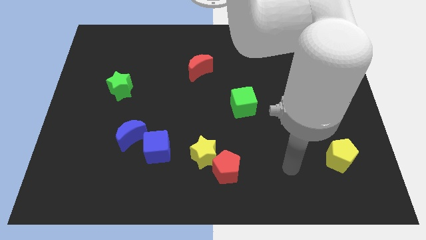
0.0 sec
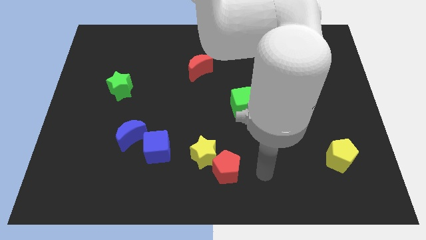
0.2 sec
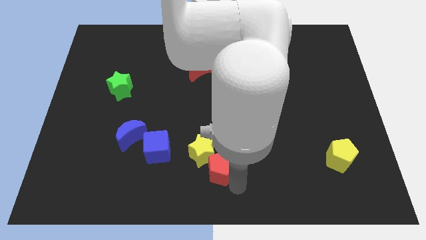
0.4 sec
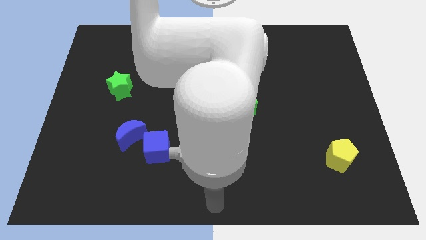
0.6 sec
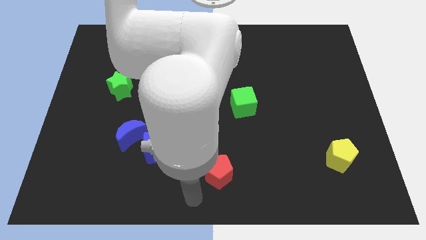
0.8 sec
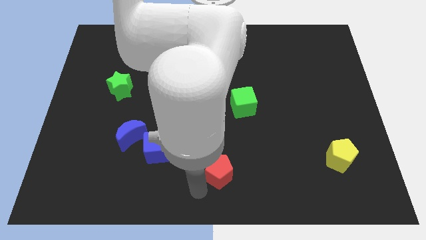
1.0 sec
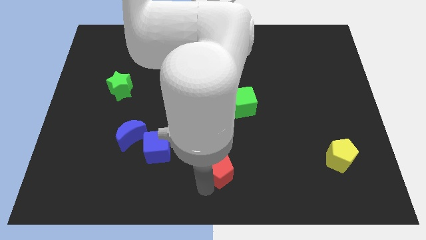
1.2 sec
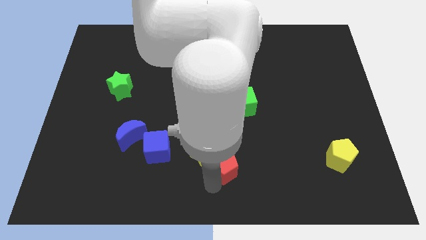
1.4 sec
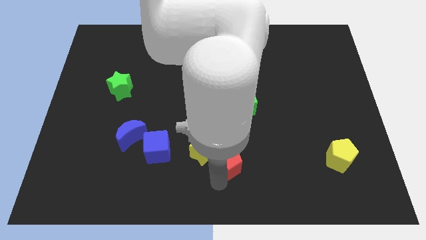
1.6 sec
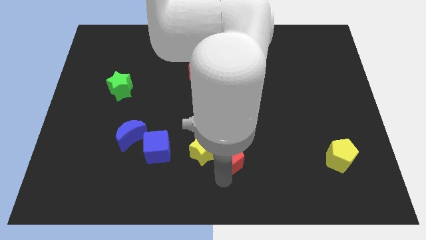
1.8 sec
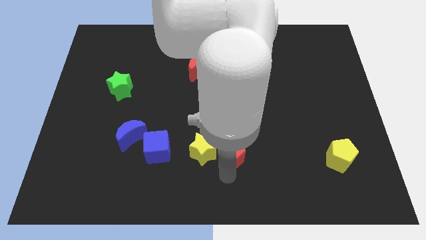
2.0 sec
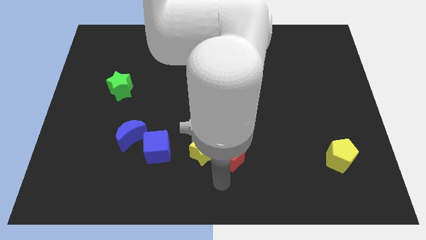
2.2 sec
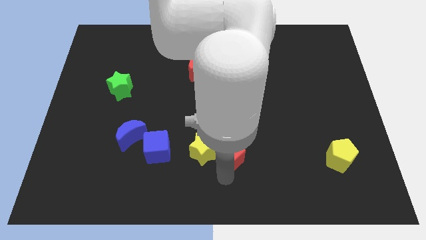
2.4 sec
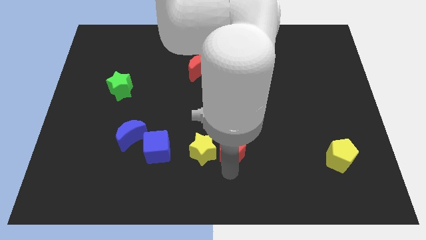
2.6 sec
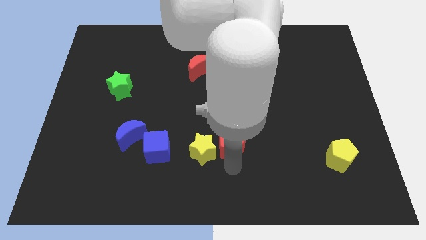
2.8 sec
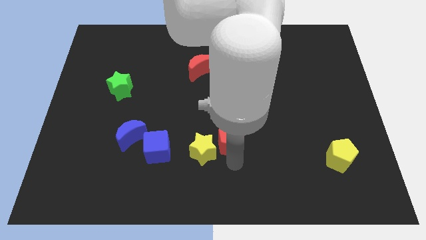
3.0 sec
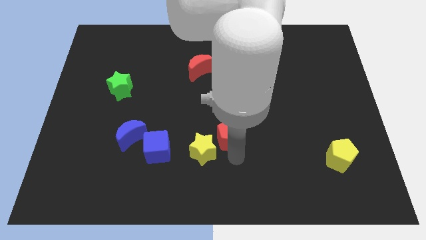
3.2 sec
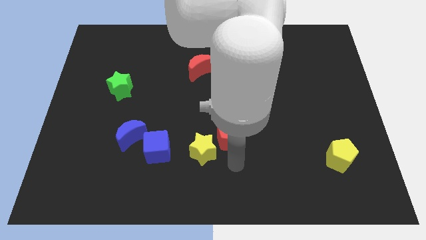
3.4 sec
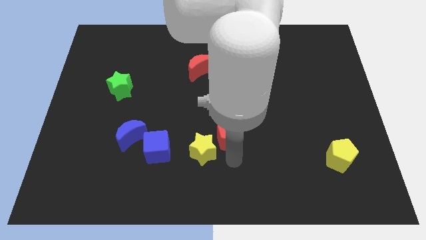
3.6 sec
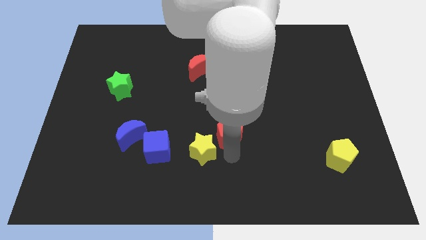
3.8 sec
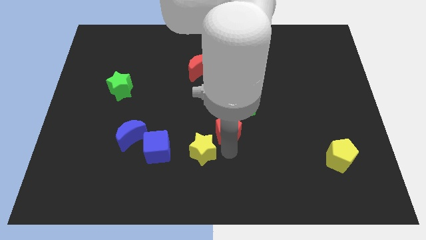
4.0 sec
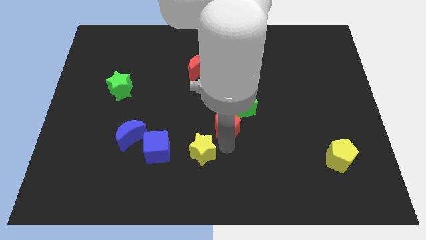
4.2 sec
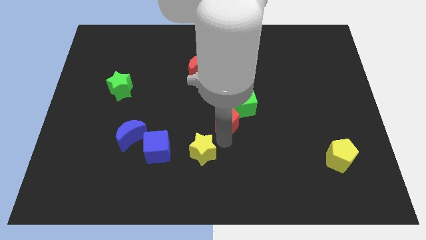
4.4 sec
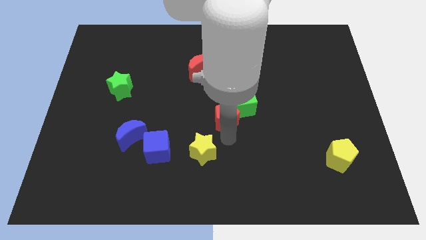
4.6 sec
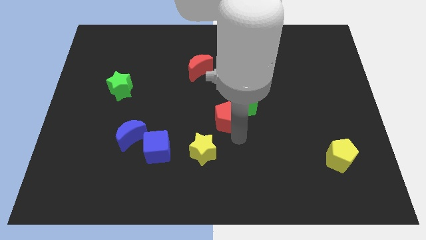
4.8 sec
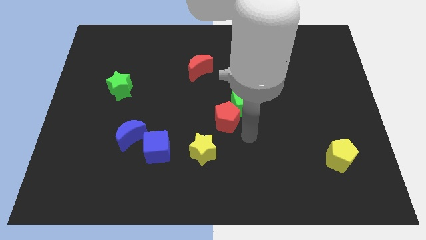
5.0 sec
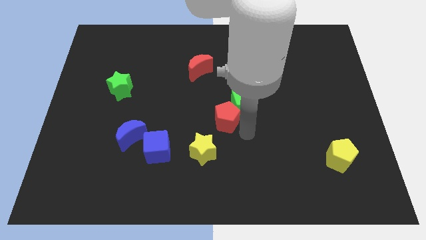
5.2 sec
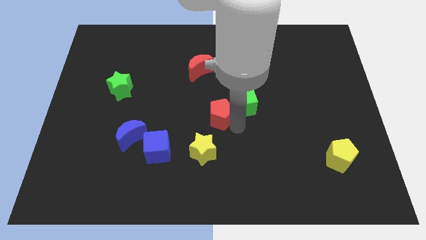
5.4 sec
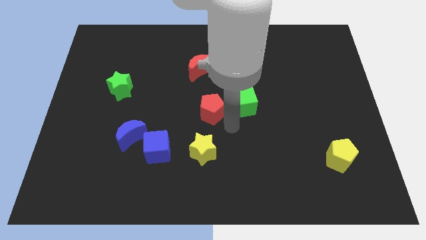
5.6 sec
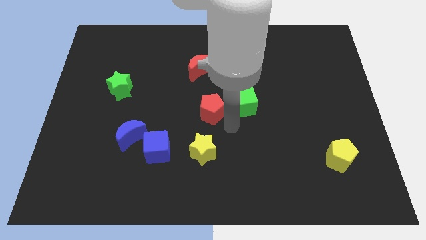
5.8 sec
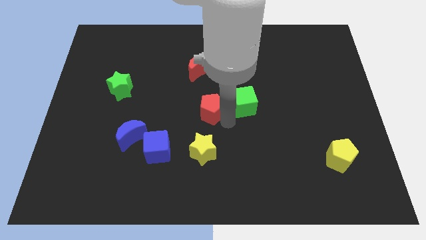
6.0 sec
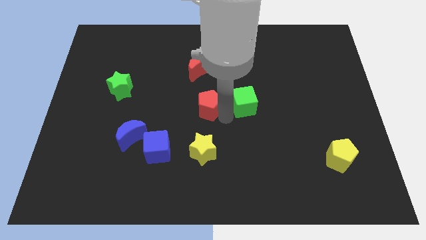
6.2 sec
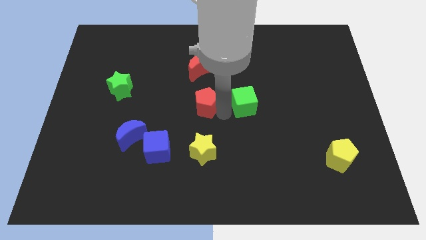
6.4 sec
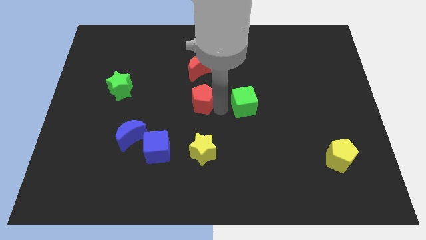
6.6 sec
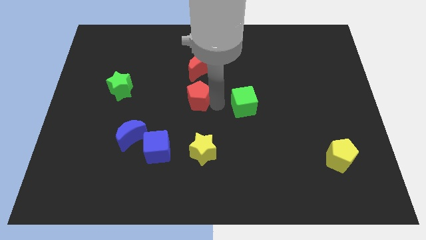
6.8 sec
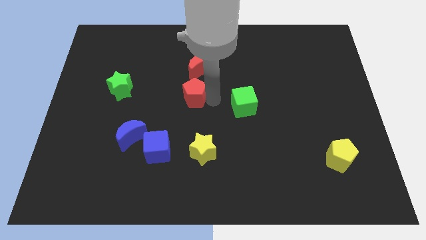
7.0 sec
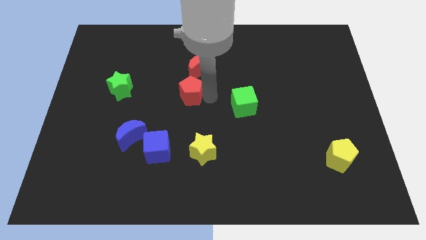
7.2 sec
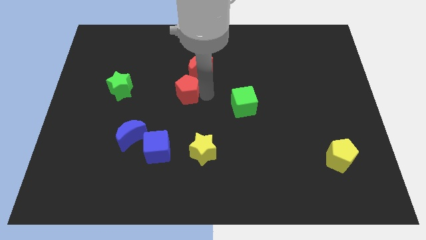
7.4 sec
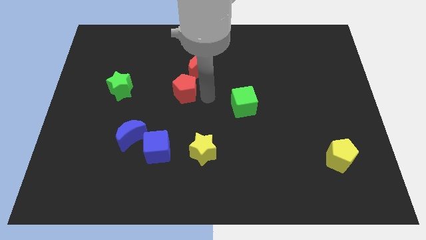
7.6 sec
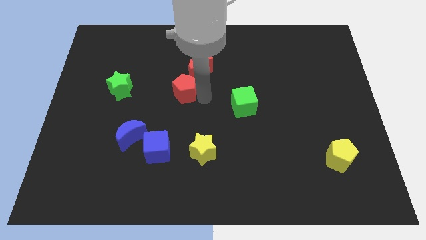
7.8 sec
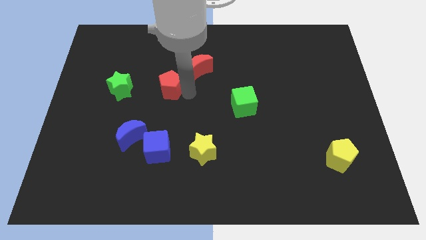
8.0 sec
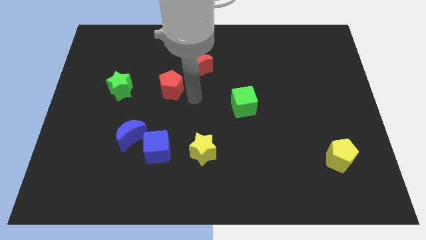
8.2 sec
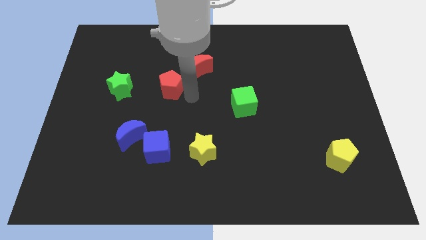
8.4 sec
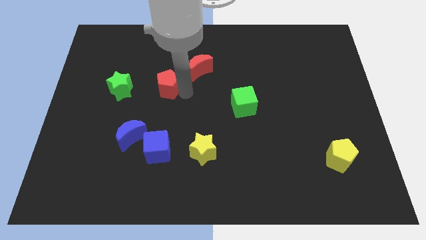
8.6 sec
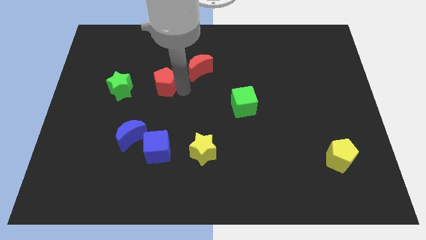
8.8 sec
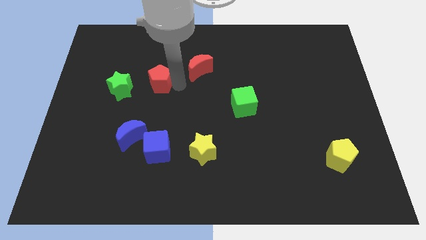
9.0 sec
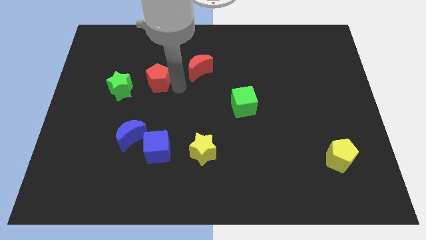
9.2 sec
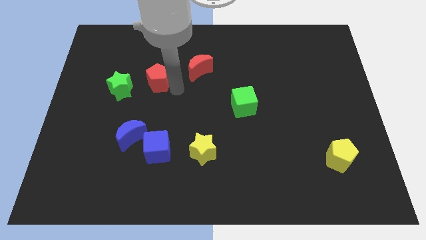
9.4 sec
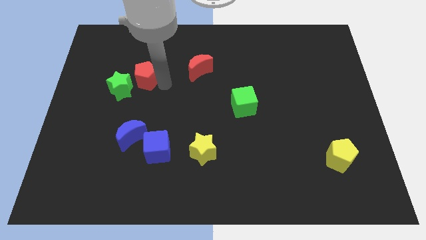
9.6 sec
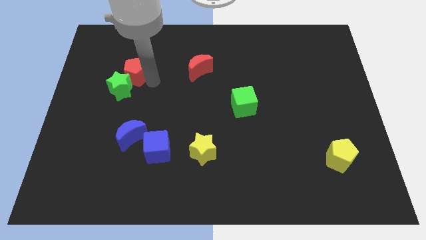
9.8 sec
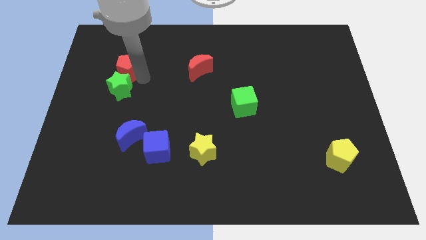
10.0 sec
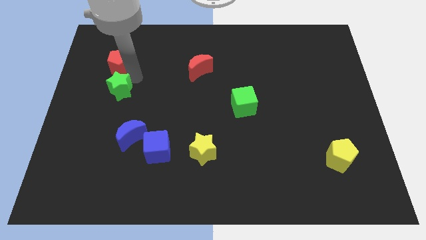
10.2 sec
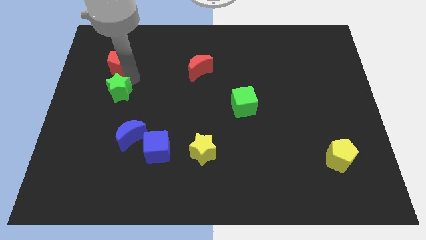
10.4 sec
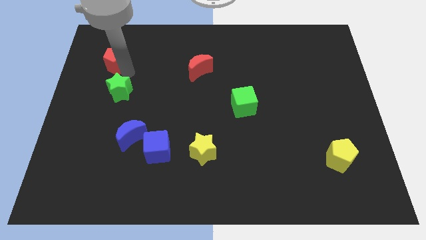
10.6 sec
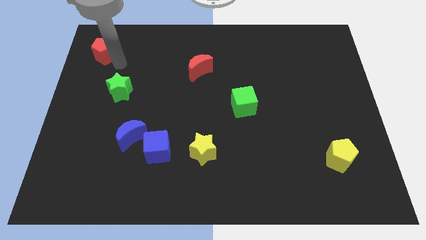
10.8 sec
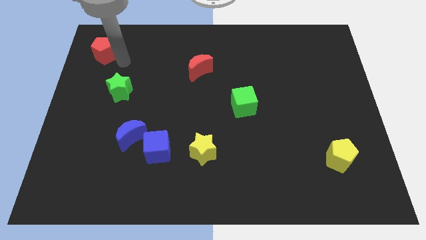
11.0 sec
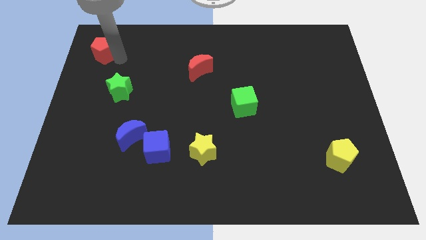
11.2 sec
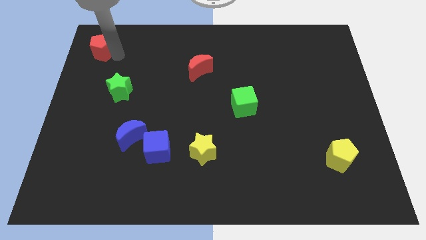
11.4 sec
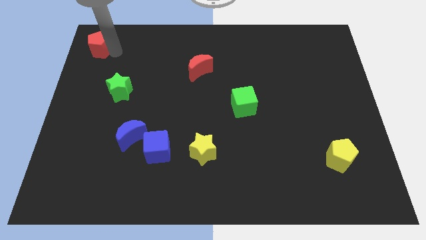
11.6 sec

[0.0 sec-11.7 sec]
push the red pentagon to the upper left corner

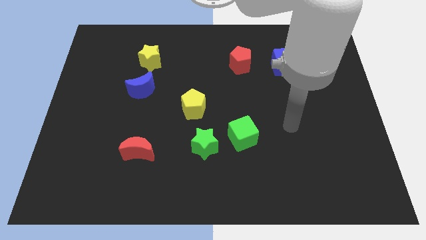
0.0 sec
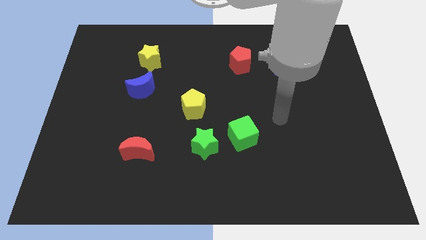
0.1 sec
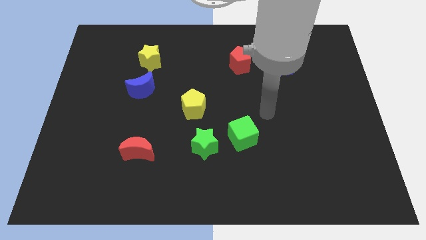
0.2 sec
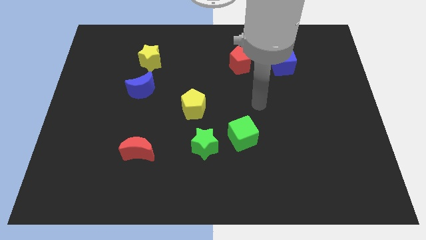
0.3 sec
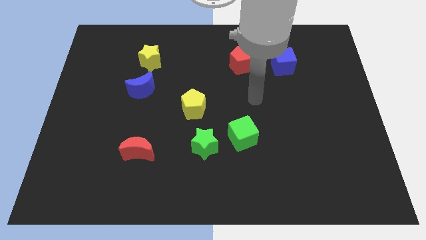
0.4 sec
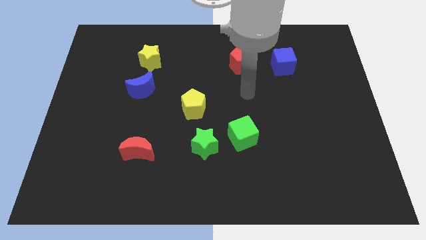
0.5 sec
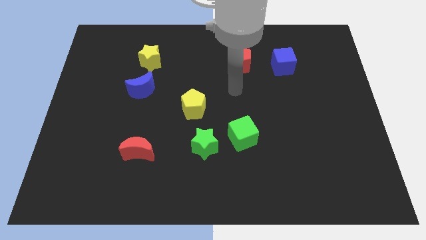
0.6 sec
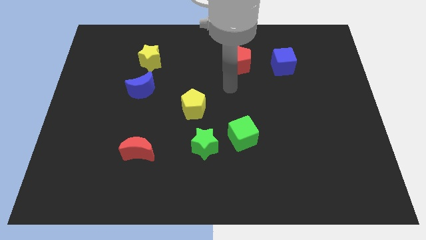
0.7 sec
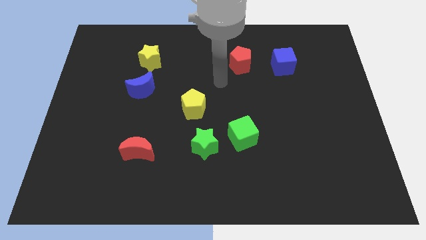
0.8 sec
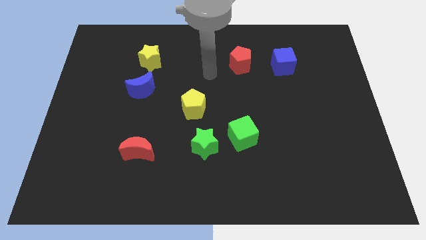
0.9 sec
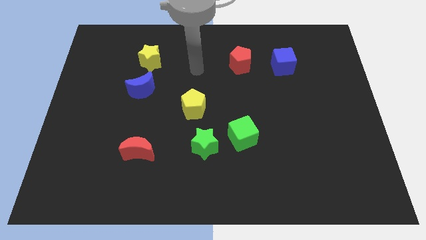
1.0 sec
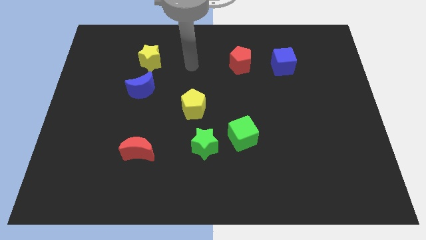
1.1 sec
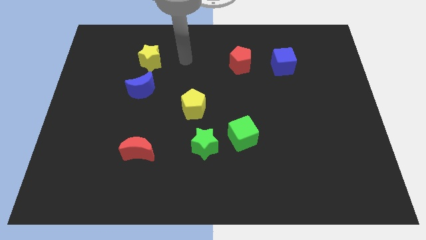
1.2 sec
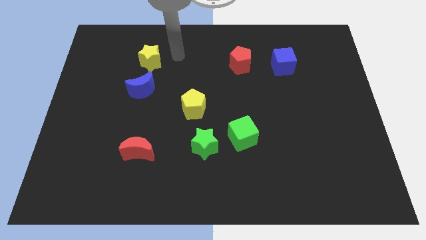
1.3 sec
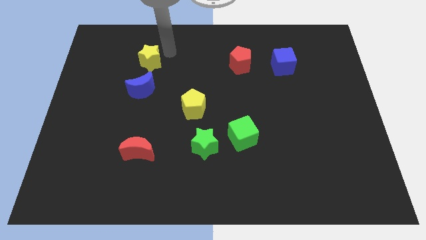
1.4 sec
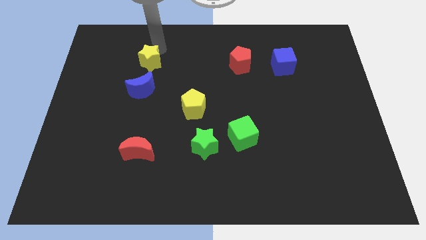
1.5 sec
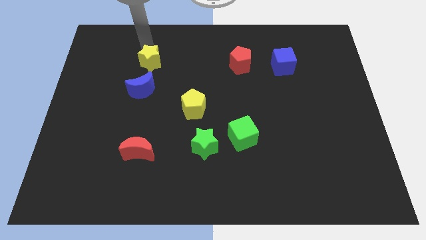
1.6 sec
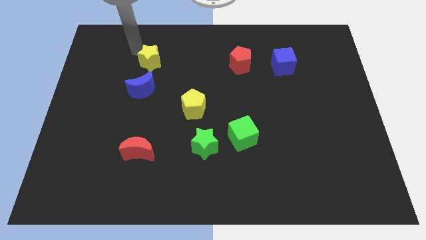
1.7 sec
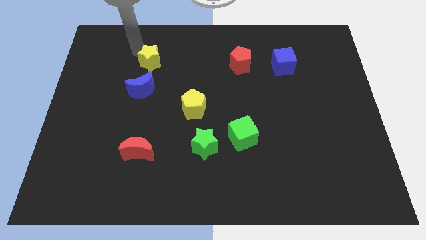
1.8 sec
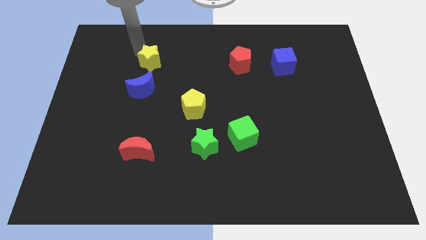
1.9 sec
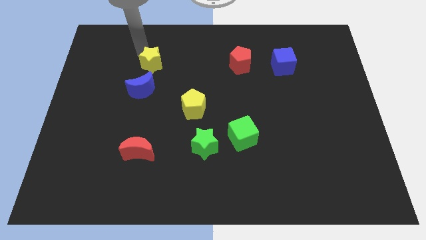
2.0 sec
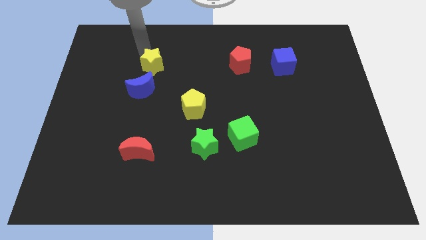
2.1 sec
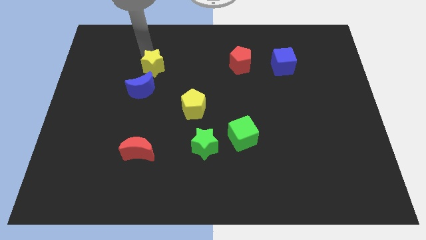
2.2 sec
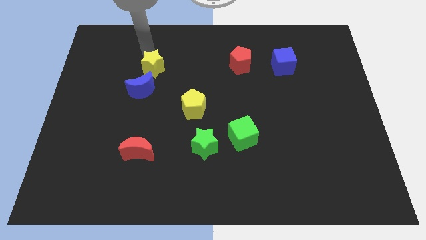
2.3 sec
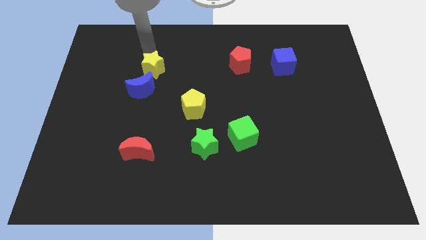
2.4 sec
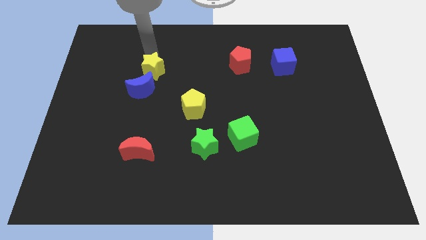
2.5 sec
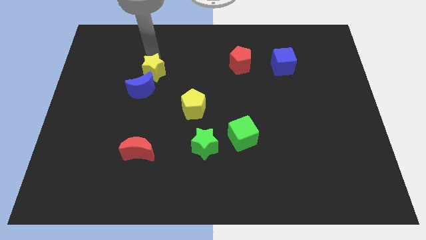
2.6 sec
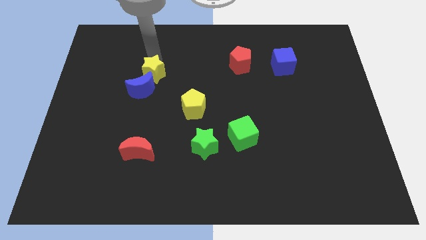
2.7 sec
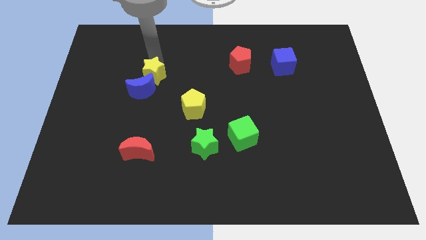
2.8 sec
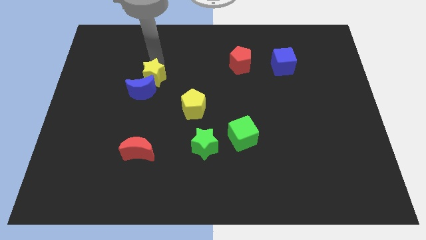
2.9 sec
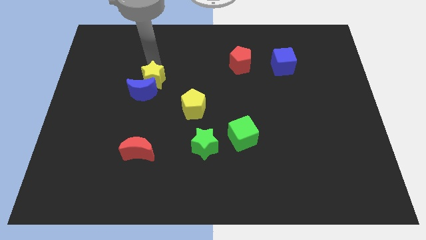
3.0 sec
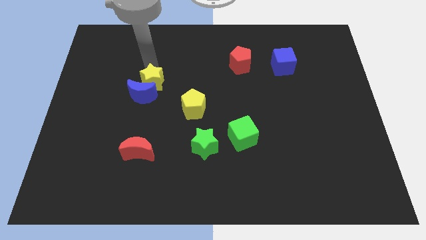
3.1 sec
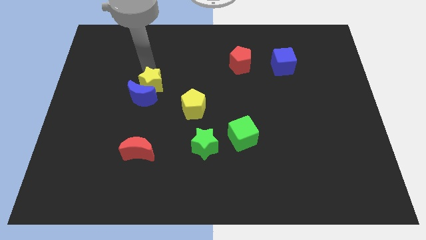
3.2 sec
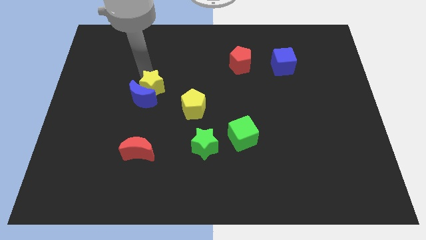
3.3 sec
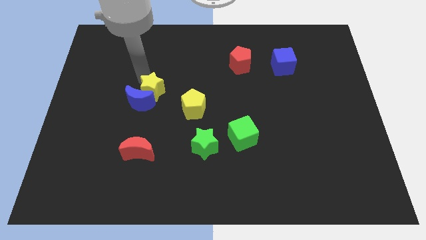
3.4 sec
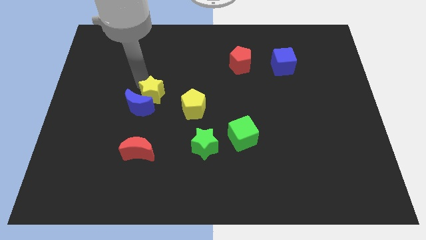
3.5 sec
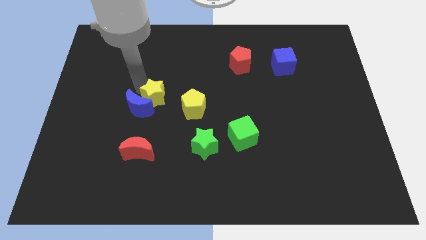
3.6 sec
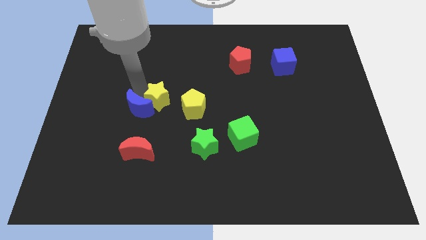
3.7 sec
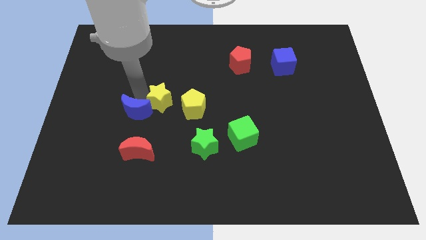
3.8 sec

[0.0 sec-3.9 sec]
put the yellow star to the center of the board
